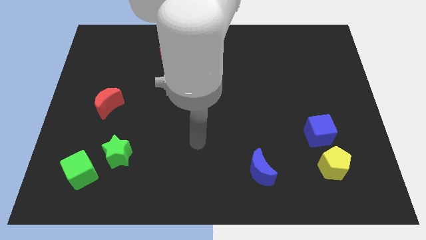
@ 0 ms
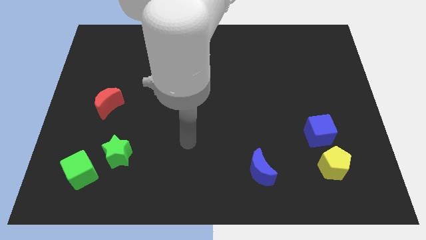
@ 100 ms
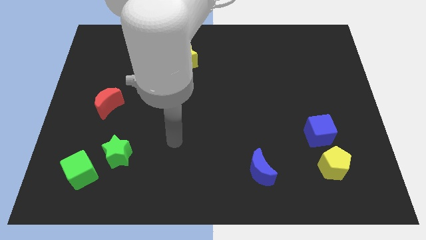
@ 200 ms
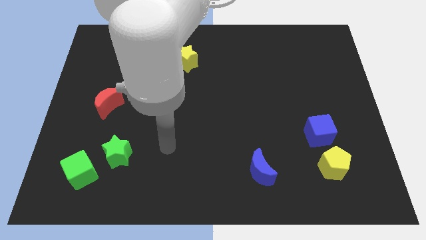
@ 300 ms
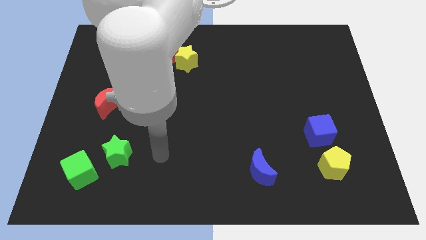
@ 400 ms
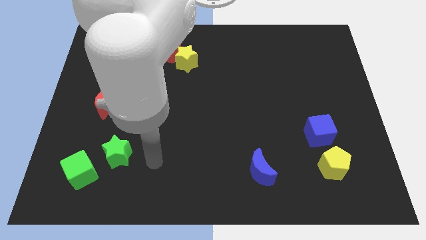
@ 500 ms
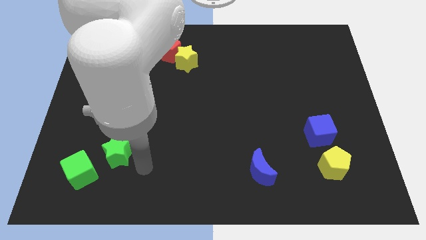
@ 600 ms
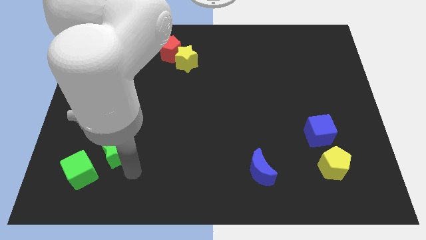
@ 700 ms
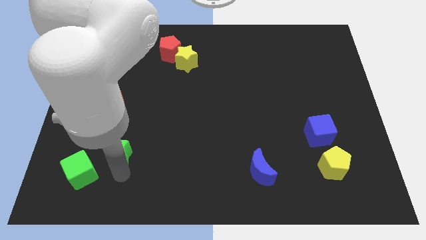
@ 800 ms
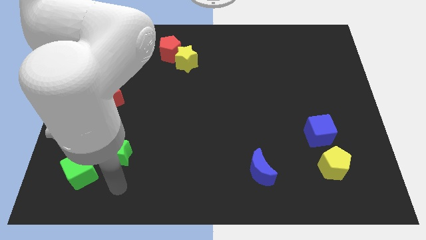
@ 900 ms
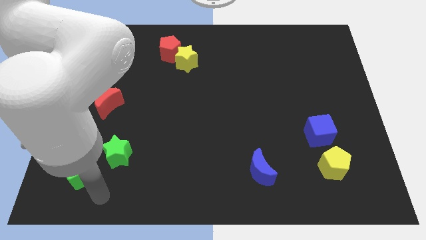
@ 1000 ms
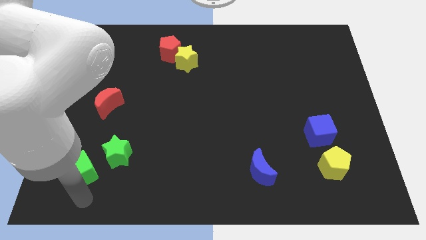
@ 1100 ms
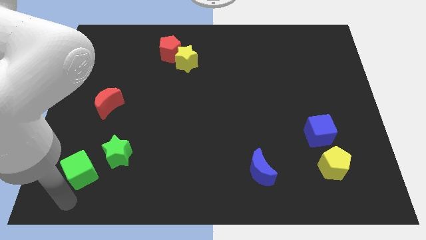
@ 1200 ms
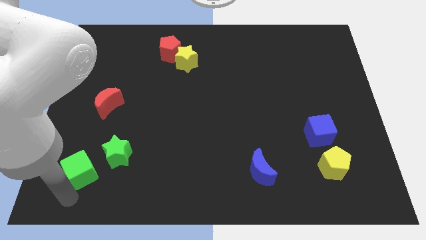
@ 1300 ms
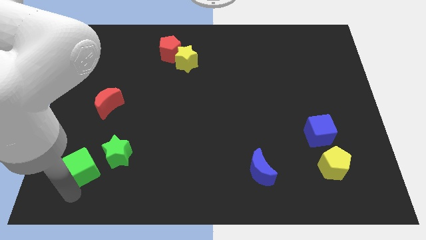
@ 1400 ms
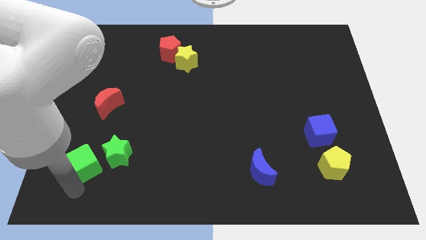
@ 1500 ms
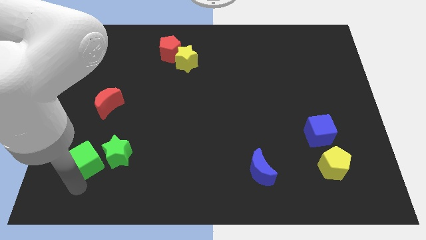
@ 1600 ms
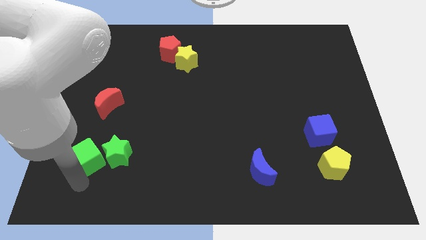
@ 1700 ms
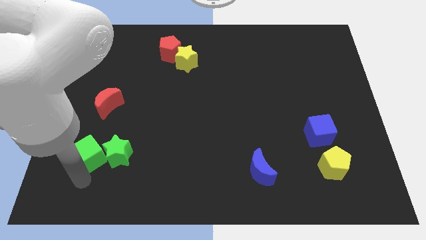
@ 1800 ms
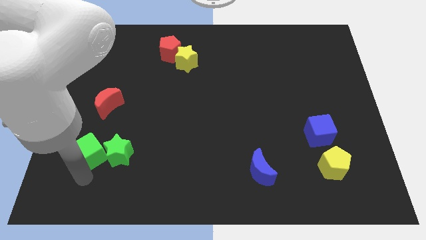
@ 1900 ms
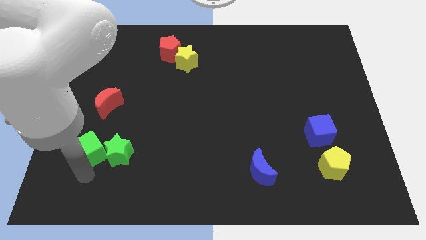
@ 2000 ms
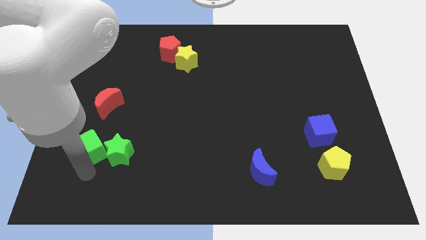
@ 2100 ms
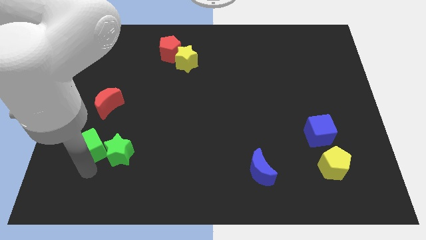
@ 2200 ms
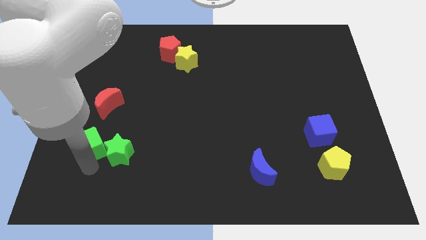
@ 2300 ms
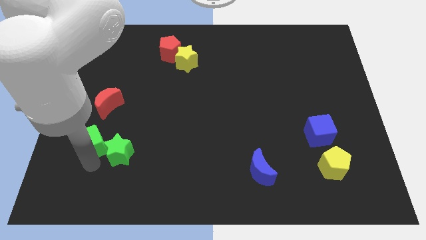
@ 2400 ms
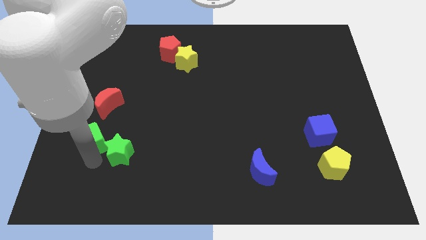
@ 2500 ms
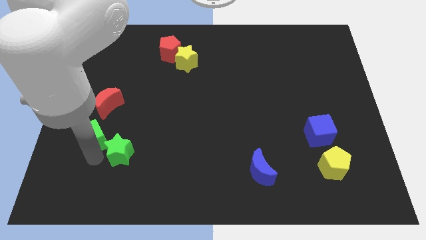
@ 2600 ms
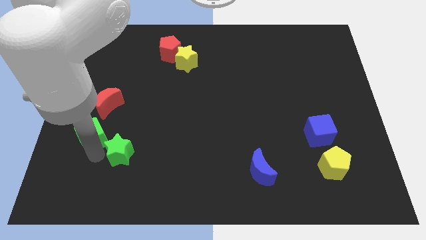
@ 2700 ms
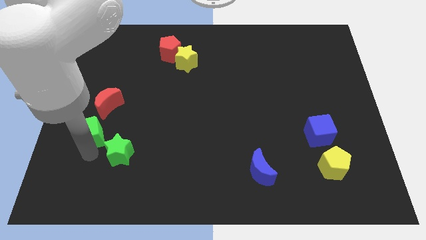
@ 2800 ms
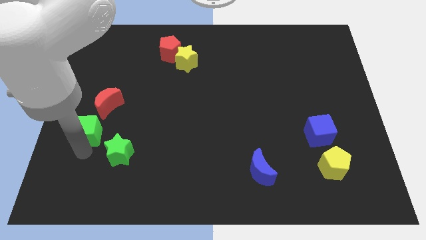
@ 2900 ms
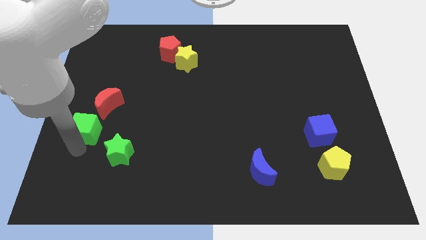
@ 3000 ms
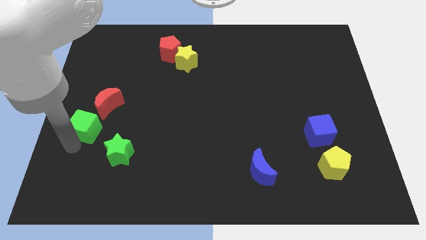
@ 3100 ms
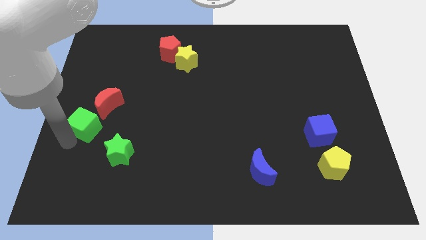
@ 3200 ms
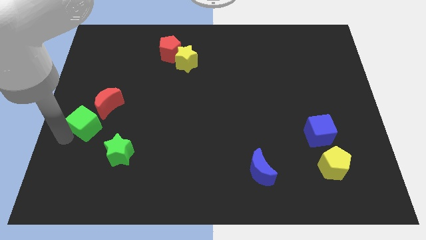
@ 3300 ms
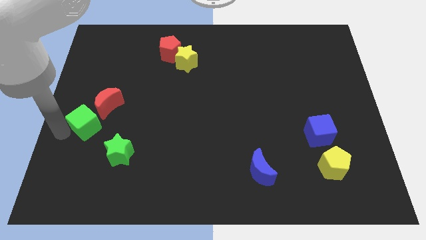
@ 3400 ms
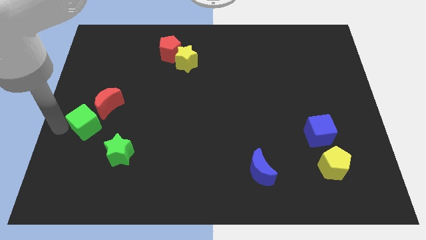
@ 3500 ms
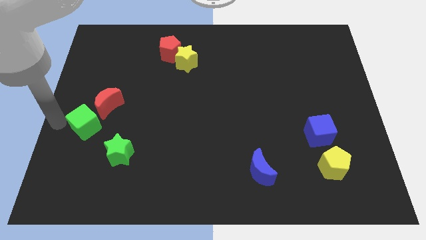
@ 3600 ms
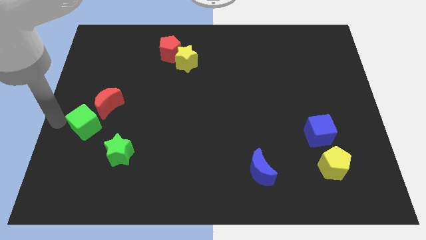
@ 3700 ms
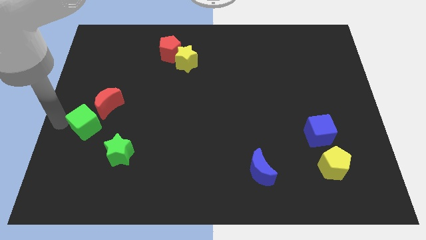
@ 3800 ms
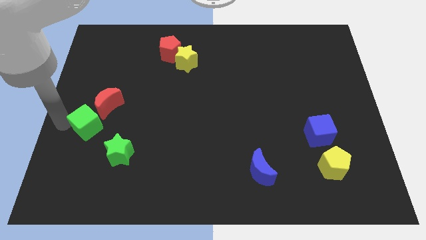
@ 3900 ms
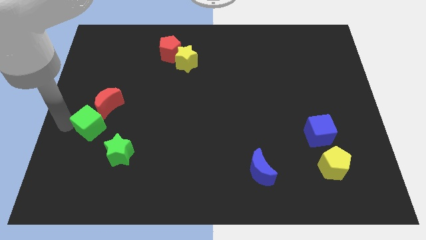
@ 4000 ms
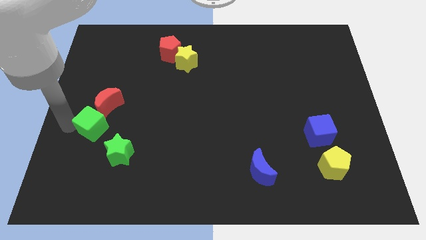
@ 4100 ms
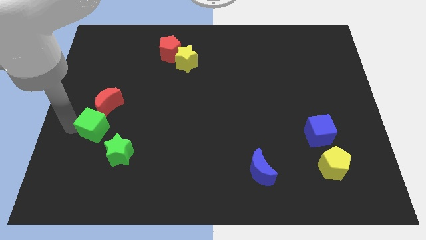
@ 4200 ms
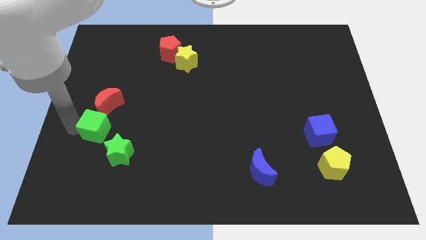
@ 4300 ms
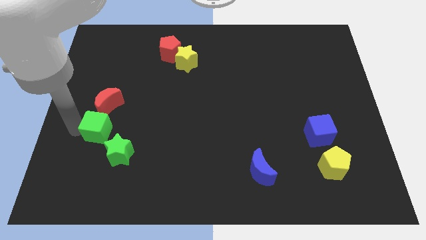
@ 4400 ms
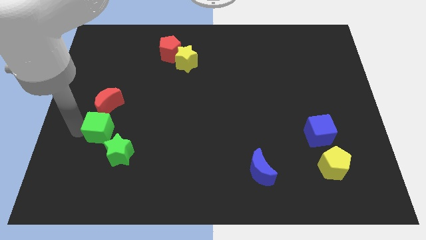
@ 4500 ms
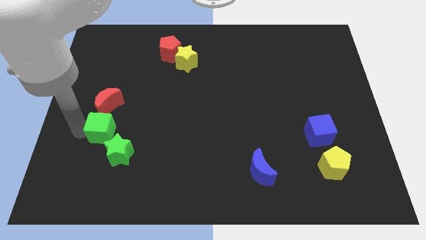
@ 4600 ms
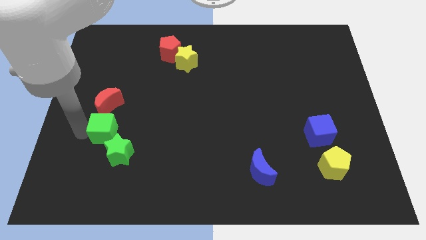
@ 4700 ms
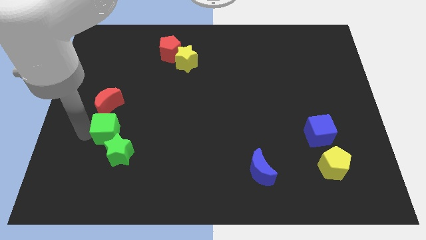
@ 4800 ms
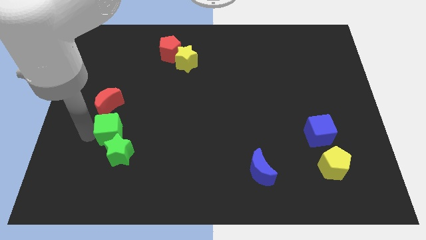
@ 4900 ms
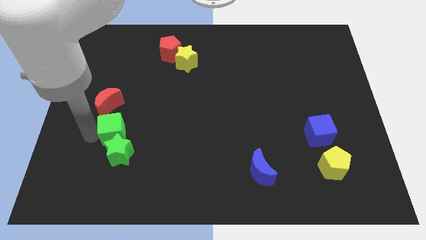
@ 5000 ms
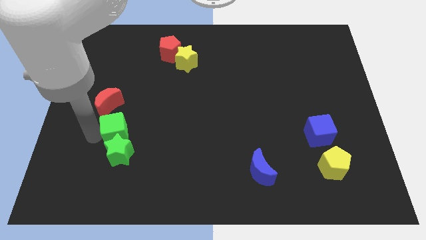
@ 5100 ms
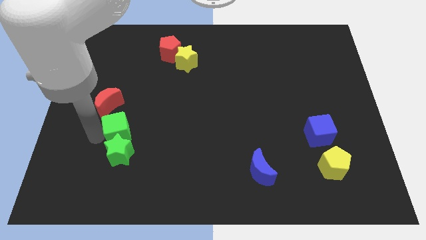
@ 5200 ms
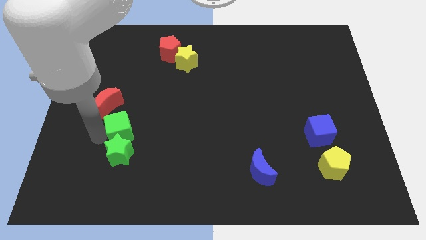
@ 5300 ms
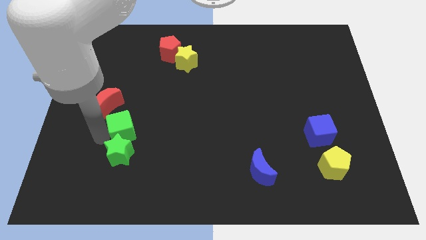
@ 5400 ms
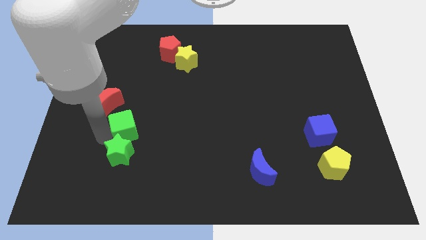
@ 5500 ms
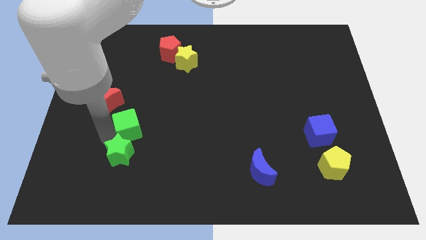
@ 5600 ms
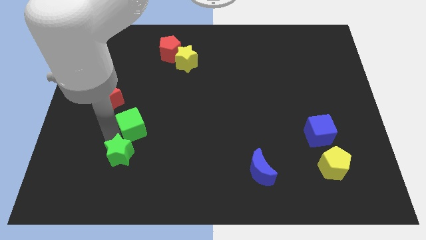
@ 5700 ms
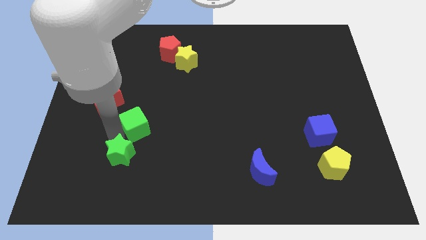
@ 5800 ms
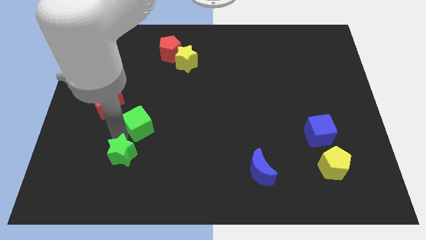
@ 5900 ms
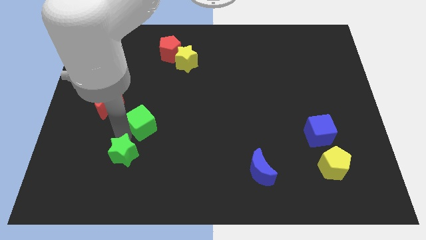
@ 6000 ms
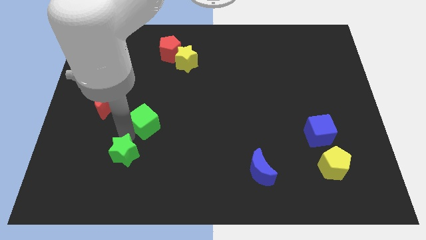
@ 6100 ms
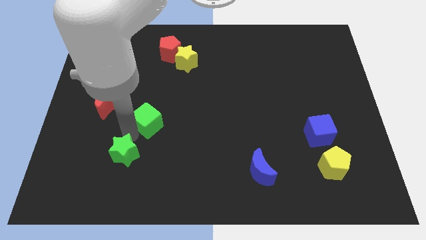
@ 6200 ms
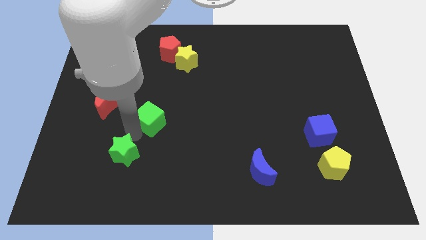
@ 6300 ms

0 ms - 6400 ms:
push the green cube to the right of the red moon

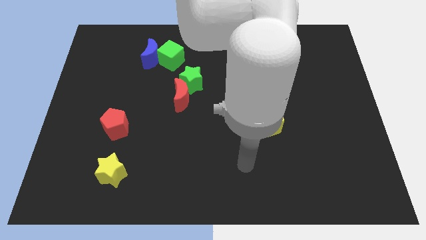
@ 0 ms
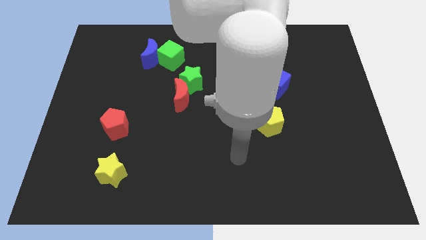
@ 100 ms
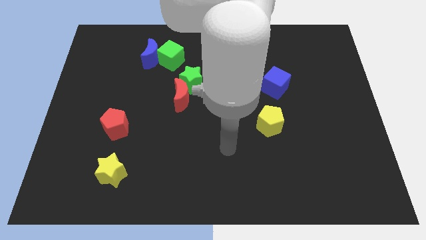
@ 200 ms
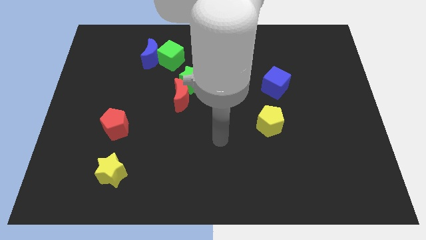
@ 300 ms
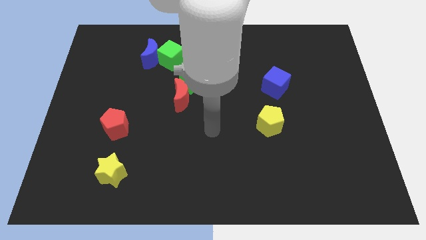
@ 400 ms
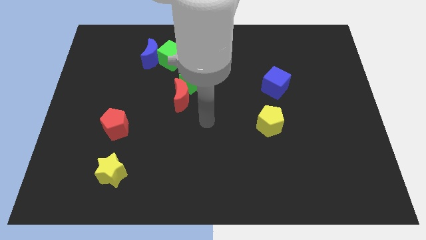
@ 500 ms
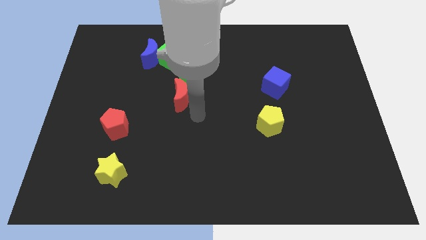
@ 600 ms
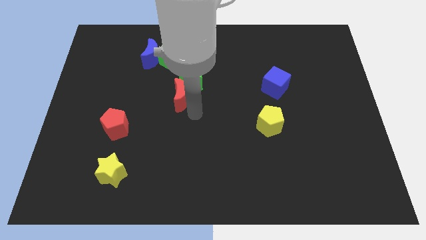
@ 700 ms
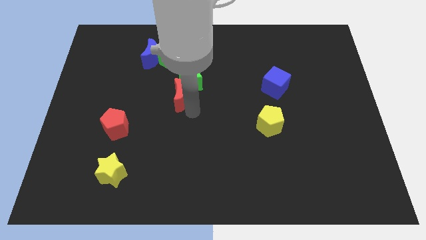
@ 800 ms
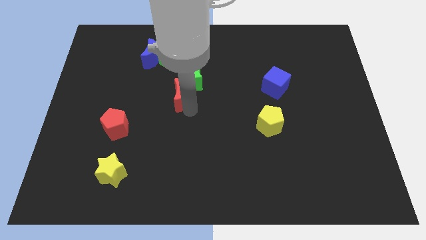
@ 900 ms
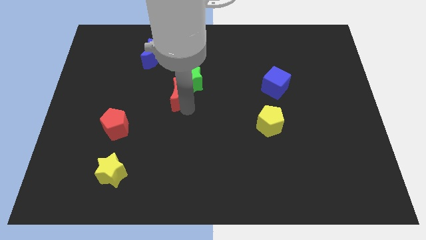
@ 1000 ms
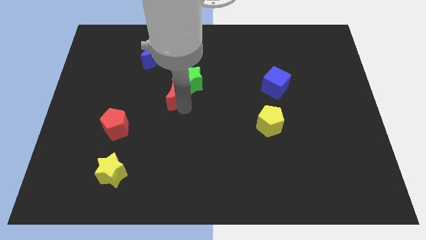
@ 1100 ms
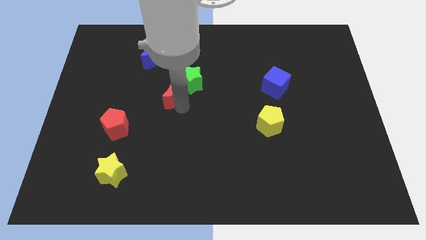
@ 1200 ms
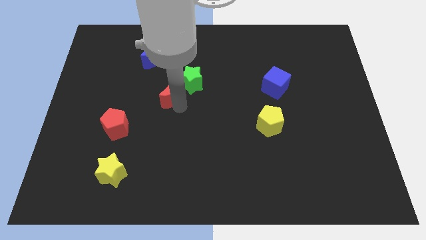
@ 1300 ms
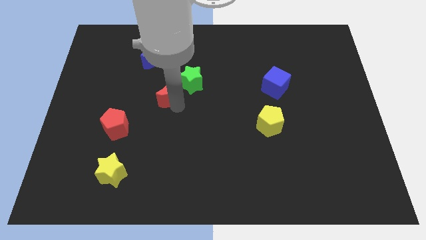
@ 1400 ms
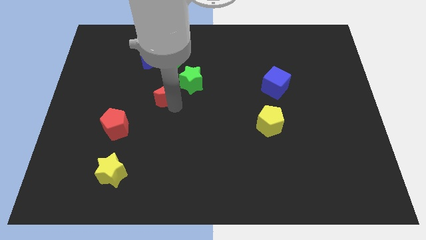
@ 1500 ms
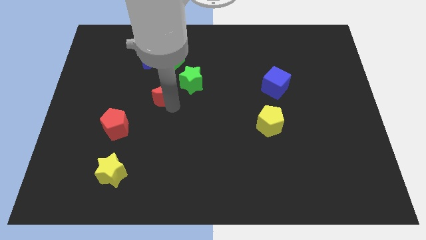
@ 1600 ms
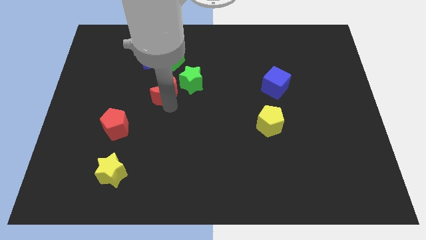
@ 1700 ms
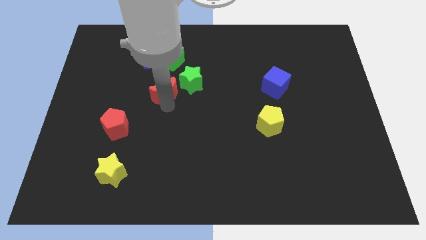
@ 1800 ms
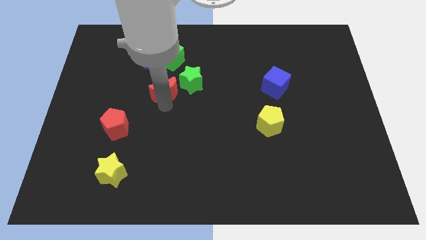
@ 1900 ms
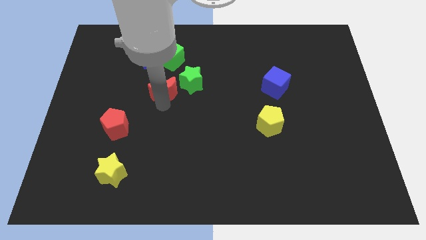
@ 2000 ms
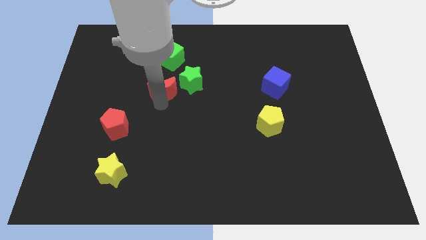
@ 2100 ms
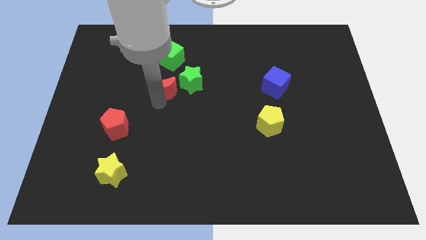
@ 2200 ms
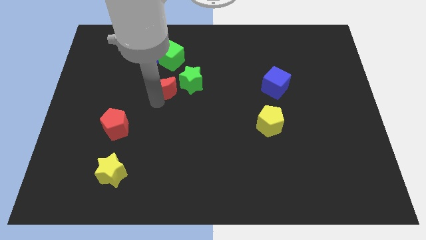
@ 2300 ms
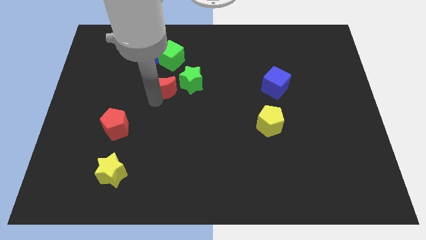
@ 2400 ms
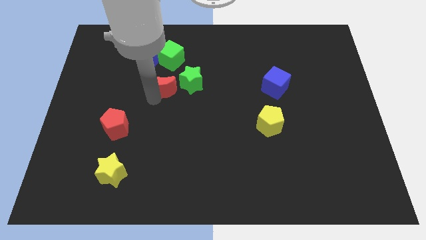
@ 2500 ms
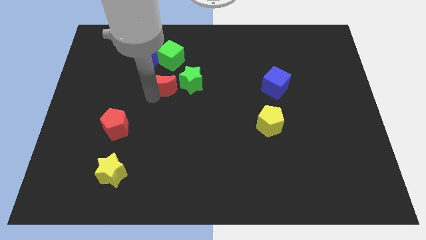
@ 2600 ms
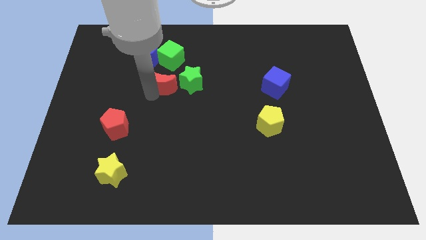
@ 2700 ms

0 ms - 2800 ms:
push the red moon to the bottom right of the blue moon
